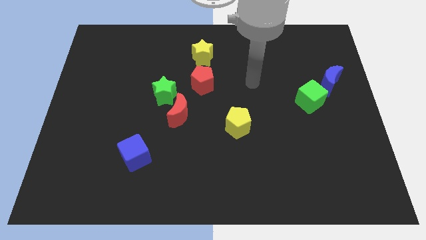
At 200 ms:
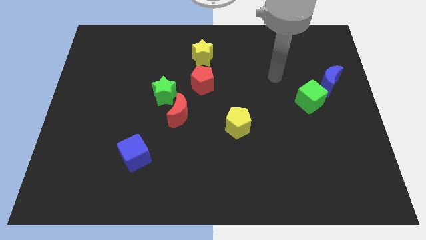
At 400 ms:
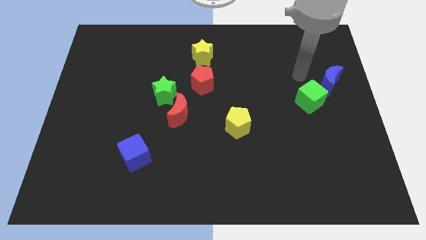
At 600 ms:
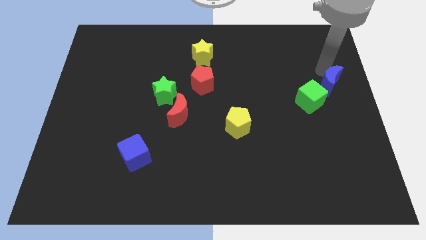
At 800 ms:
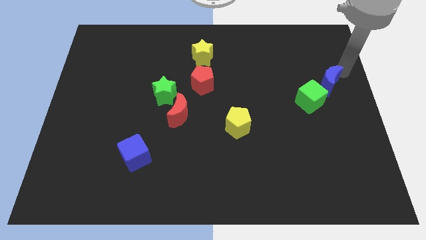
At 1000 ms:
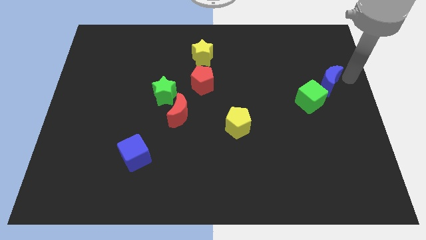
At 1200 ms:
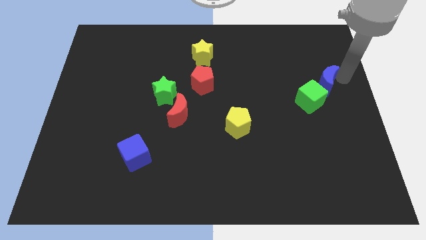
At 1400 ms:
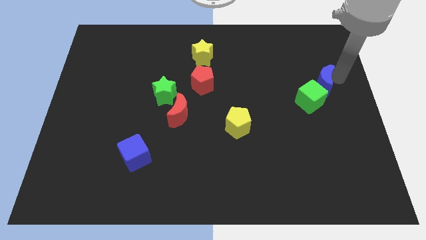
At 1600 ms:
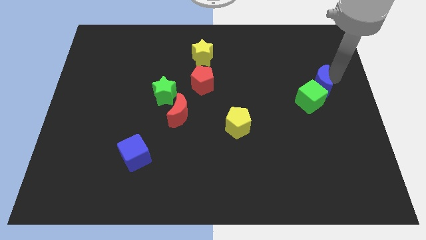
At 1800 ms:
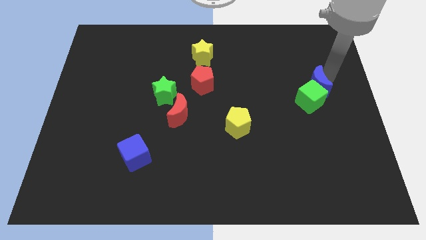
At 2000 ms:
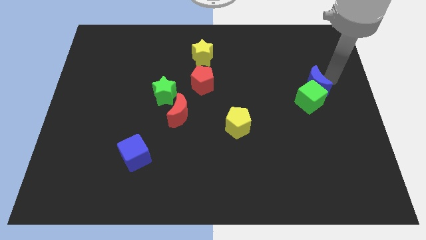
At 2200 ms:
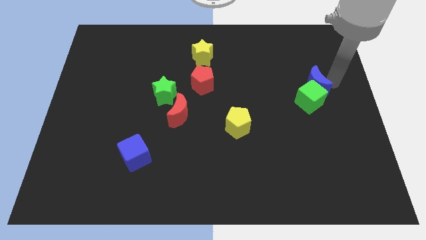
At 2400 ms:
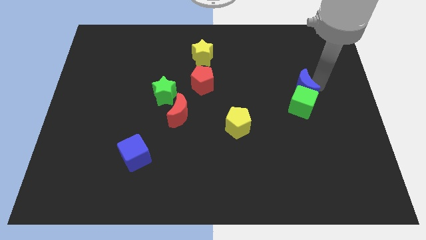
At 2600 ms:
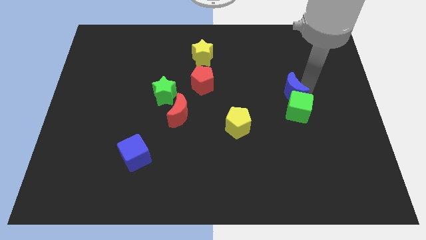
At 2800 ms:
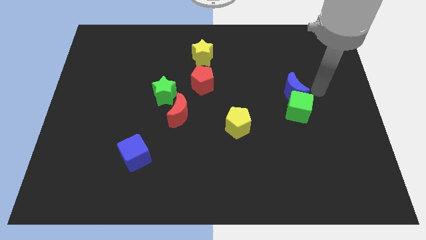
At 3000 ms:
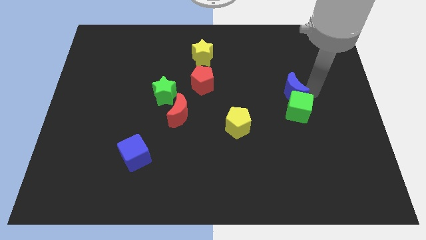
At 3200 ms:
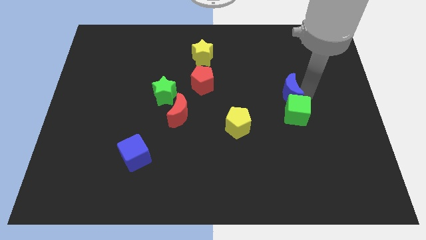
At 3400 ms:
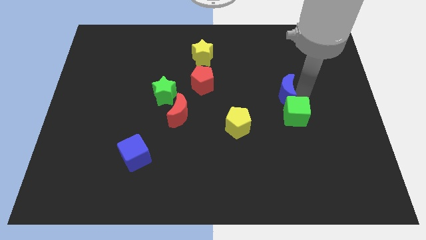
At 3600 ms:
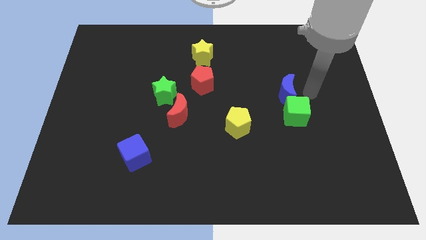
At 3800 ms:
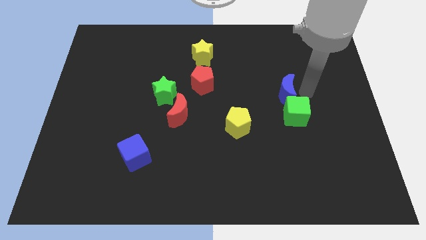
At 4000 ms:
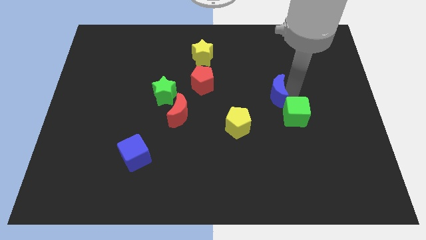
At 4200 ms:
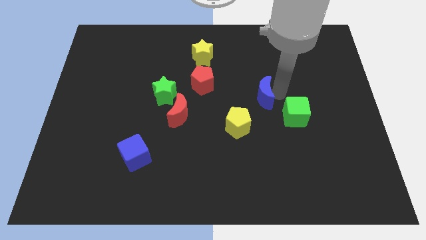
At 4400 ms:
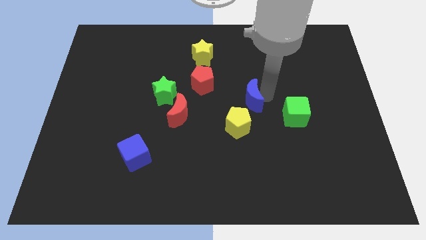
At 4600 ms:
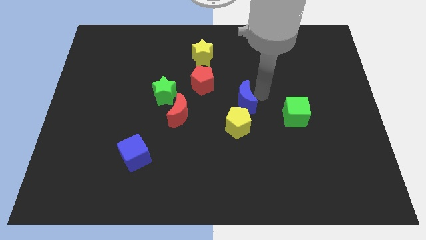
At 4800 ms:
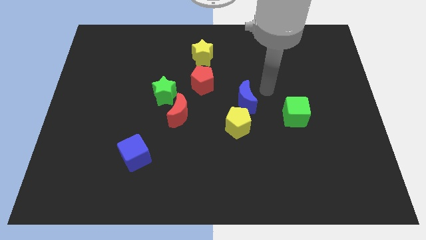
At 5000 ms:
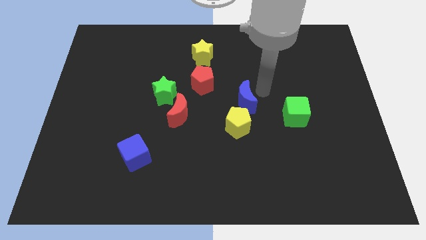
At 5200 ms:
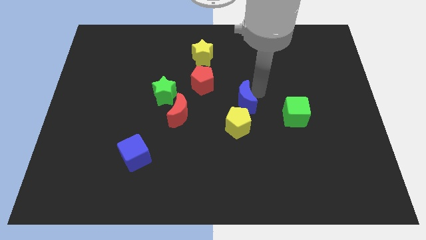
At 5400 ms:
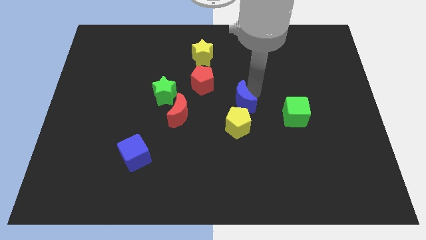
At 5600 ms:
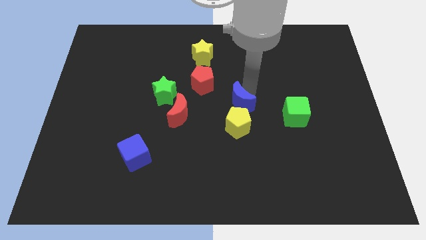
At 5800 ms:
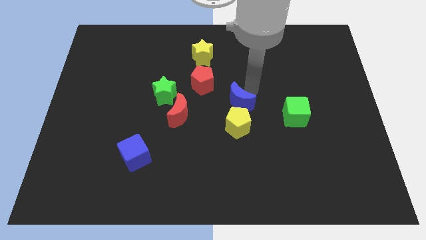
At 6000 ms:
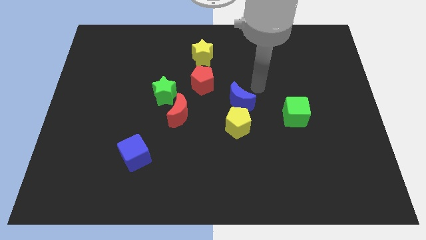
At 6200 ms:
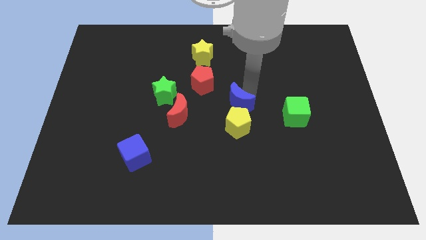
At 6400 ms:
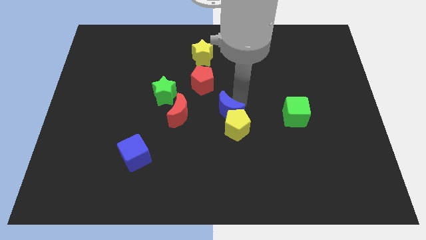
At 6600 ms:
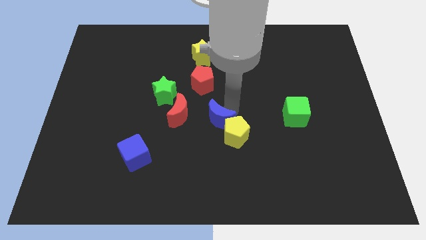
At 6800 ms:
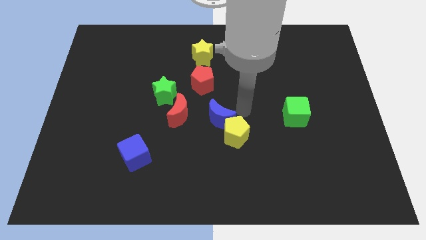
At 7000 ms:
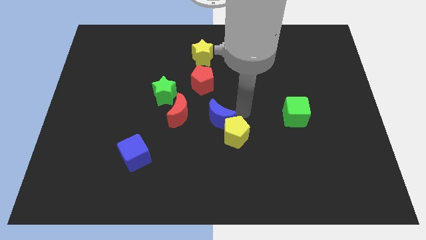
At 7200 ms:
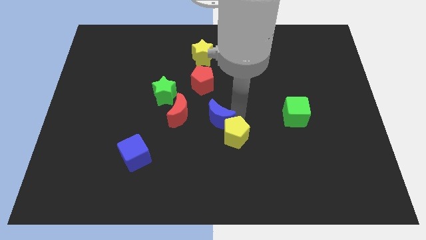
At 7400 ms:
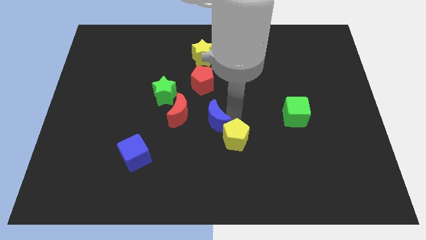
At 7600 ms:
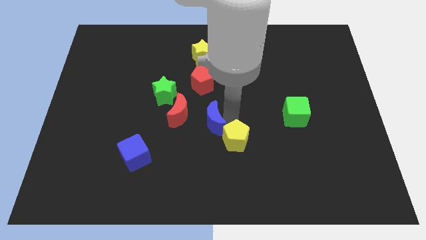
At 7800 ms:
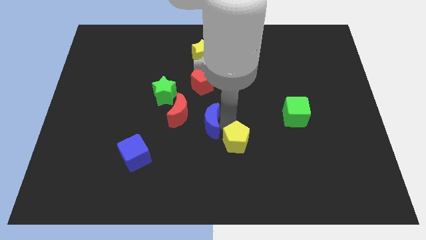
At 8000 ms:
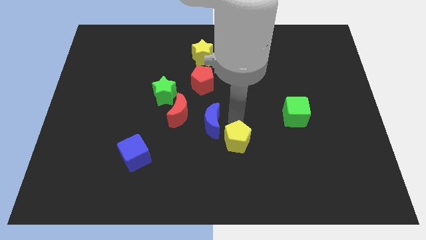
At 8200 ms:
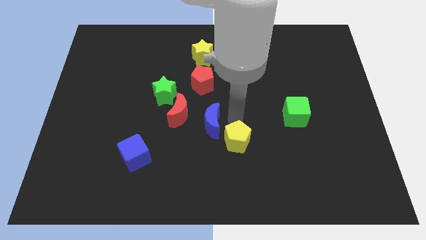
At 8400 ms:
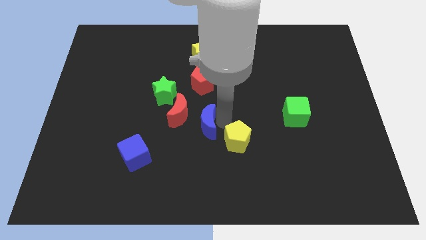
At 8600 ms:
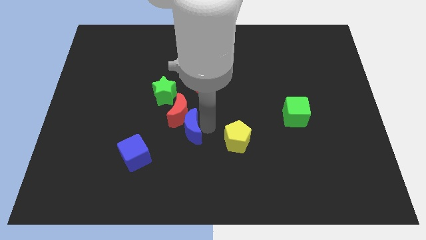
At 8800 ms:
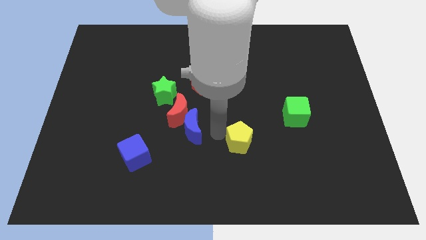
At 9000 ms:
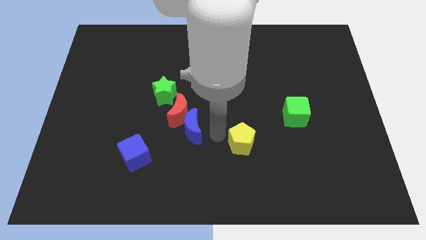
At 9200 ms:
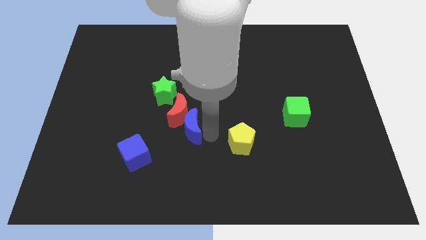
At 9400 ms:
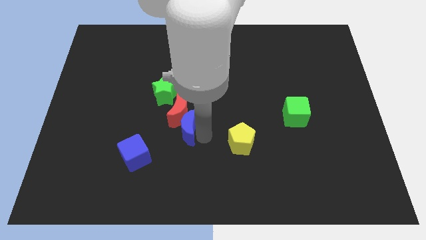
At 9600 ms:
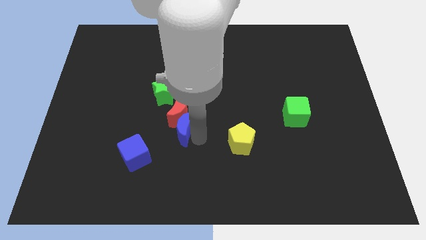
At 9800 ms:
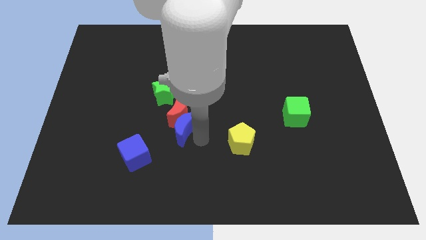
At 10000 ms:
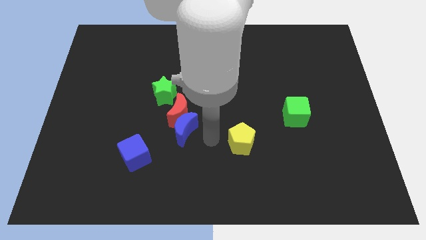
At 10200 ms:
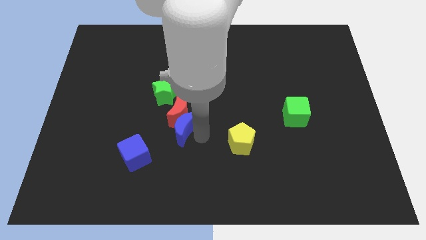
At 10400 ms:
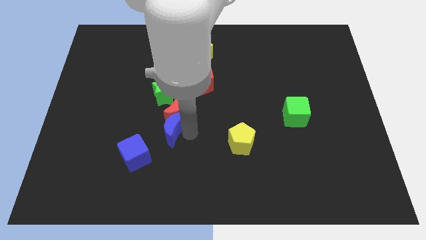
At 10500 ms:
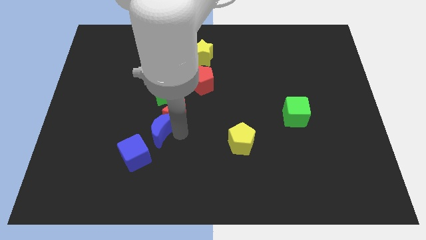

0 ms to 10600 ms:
slide the blue moon to the top of the blue cube

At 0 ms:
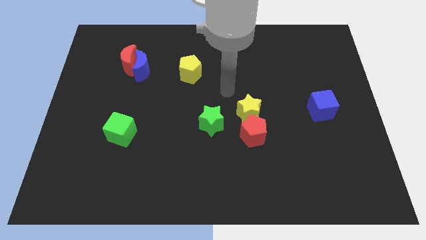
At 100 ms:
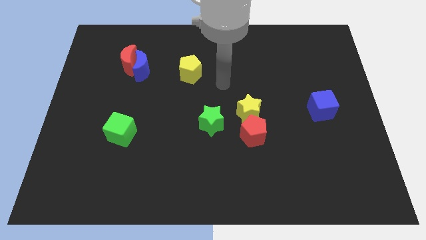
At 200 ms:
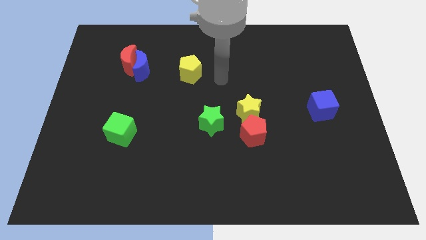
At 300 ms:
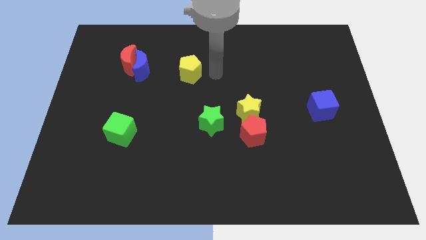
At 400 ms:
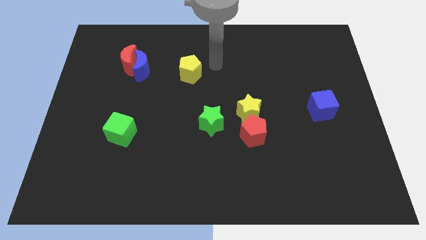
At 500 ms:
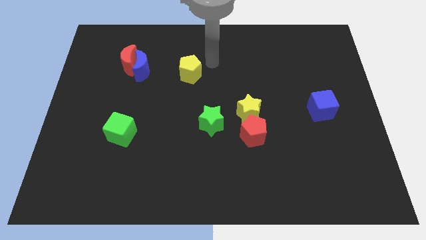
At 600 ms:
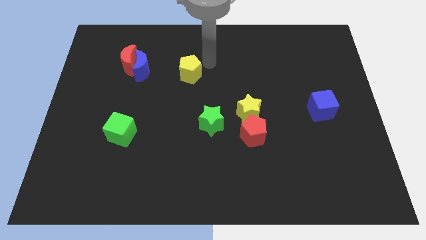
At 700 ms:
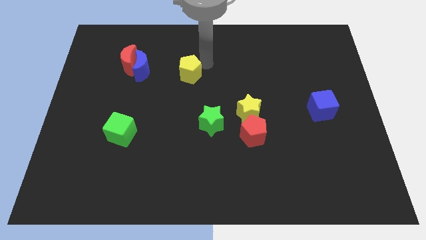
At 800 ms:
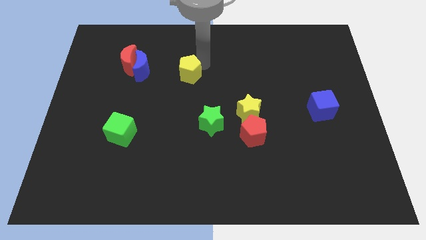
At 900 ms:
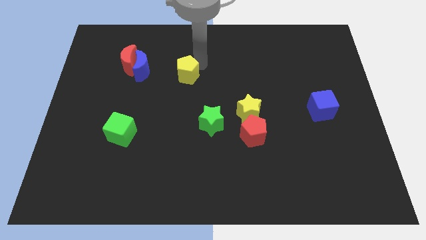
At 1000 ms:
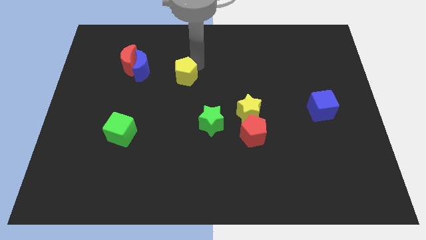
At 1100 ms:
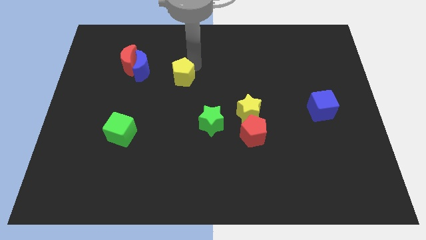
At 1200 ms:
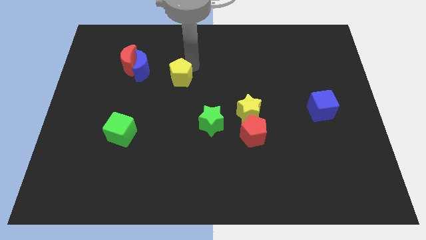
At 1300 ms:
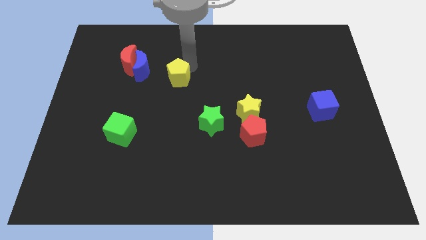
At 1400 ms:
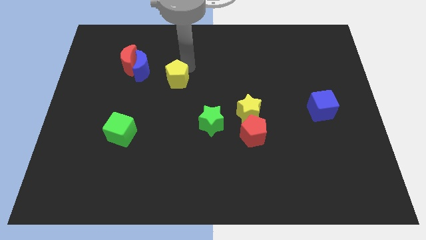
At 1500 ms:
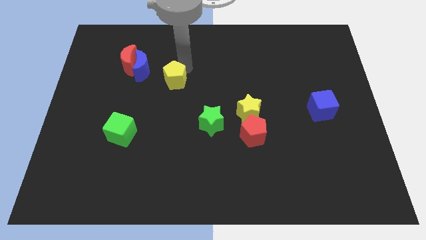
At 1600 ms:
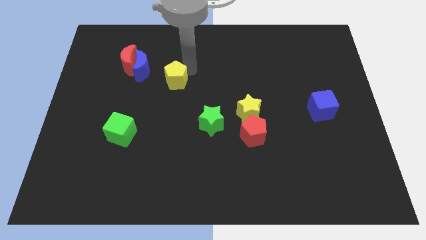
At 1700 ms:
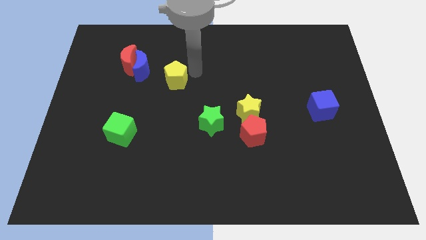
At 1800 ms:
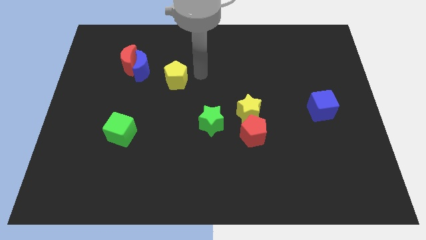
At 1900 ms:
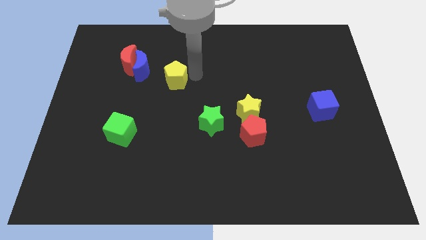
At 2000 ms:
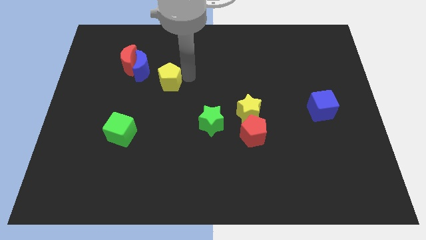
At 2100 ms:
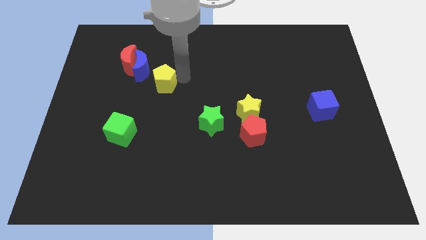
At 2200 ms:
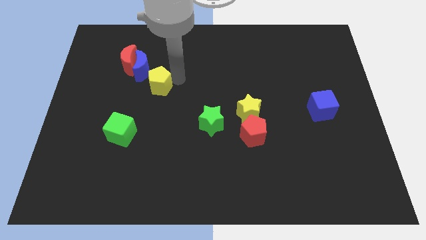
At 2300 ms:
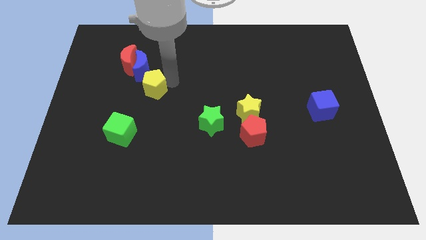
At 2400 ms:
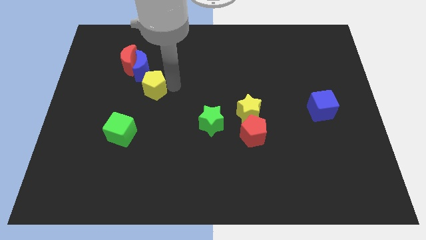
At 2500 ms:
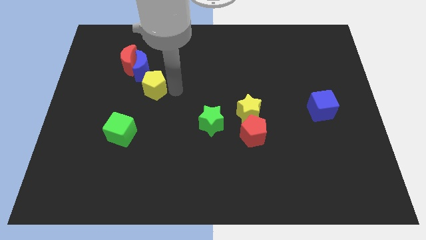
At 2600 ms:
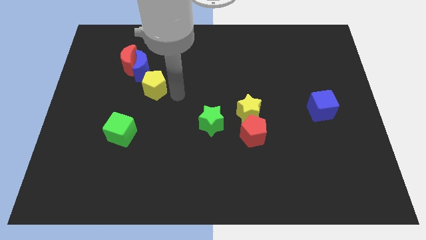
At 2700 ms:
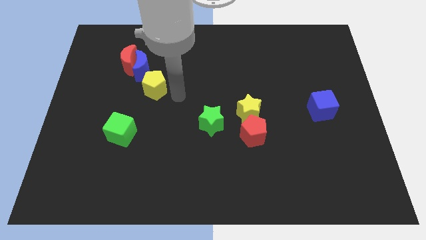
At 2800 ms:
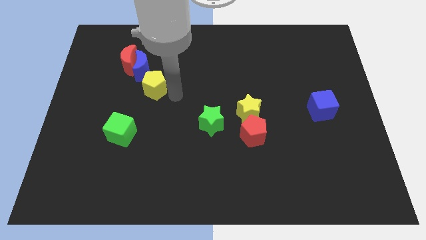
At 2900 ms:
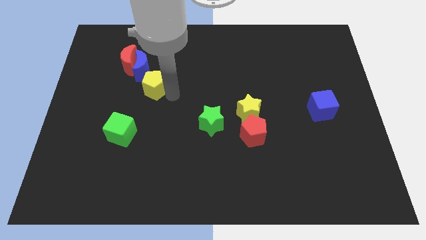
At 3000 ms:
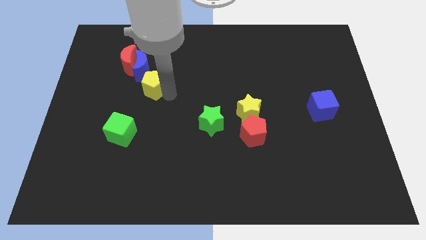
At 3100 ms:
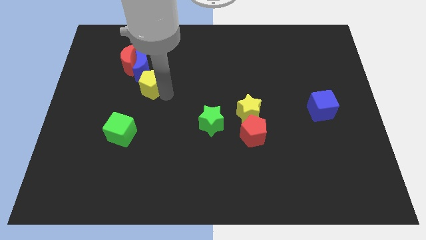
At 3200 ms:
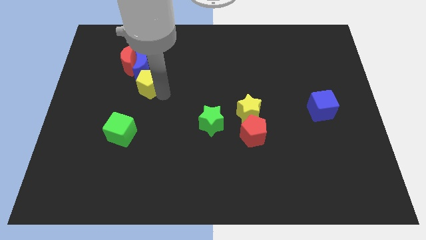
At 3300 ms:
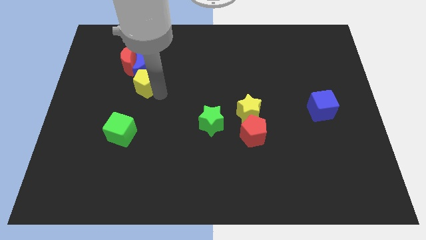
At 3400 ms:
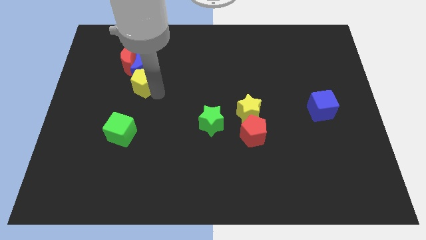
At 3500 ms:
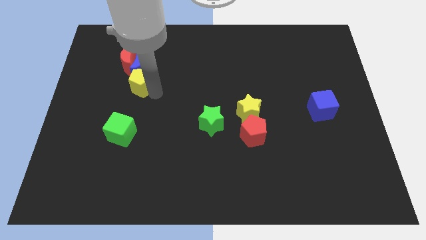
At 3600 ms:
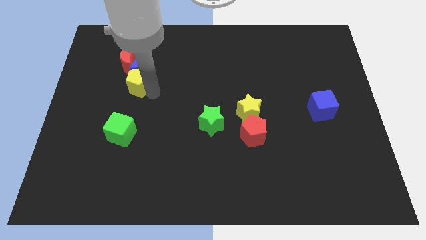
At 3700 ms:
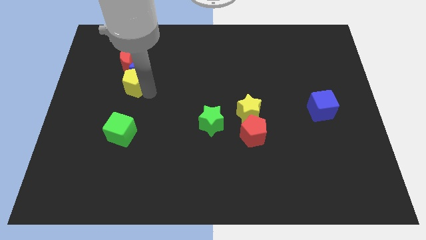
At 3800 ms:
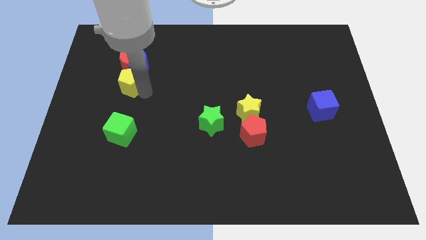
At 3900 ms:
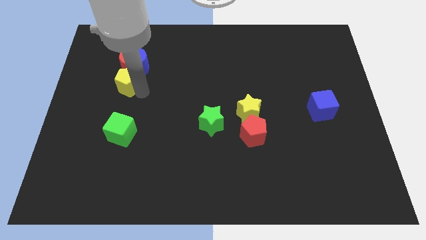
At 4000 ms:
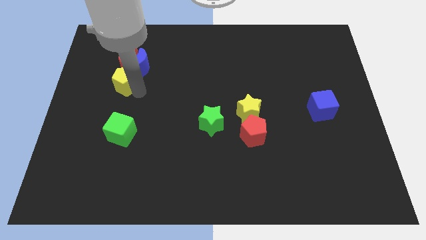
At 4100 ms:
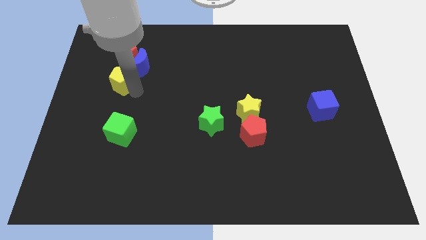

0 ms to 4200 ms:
put the yellow pentagon to the bottom left of the red moon
